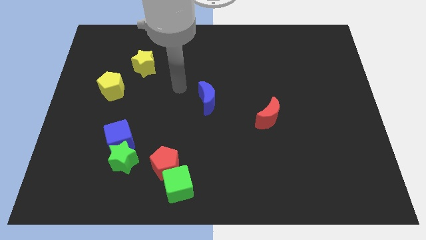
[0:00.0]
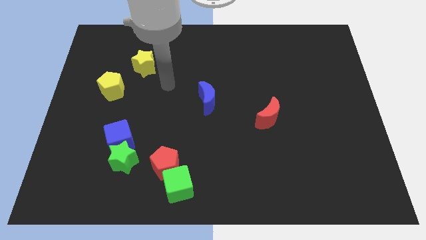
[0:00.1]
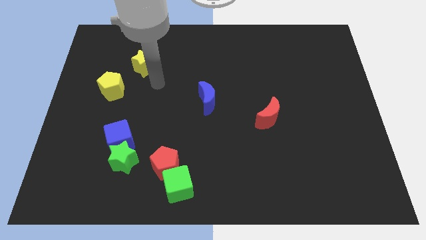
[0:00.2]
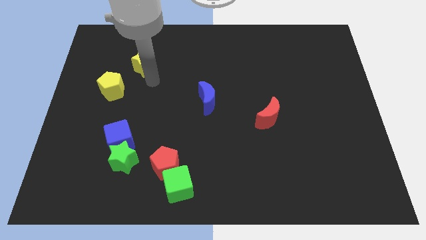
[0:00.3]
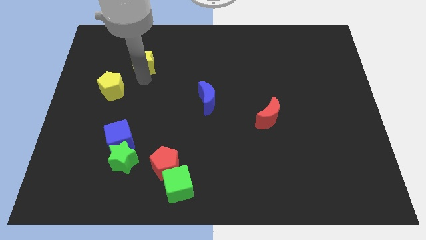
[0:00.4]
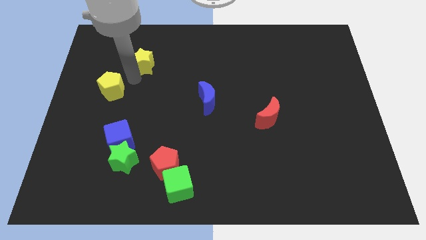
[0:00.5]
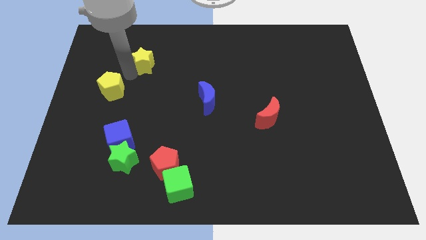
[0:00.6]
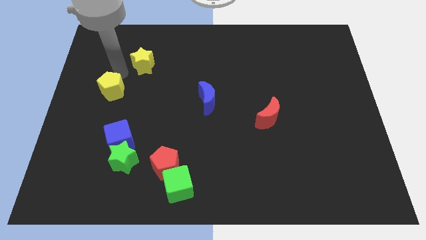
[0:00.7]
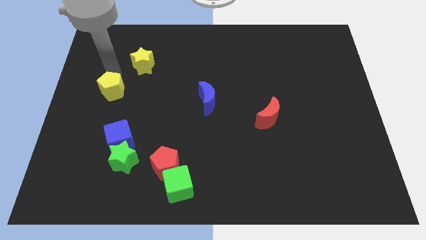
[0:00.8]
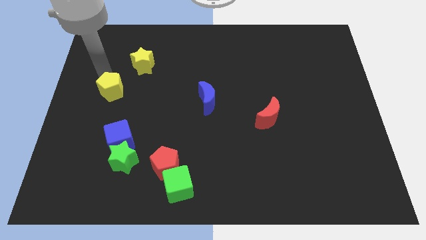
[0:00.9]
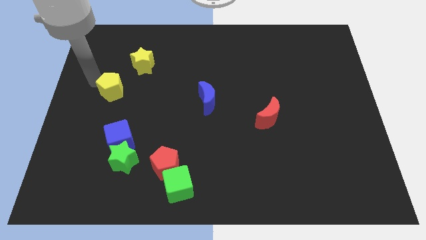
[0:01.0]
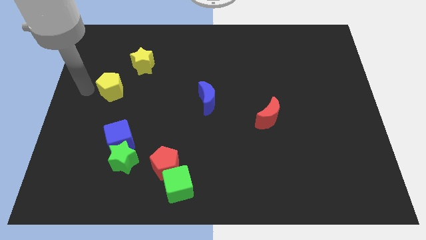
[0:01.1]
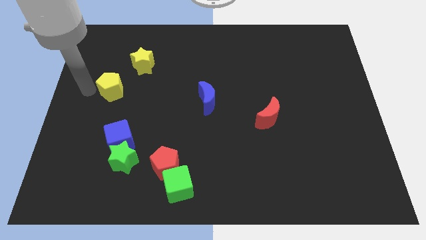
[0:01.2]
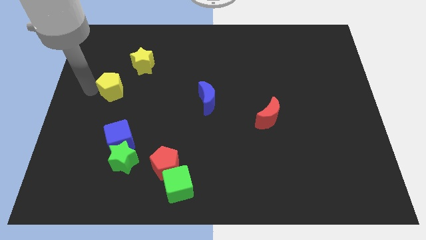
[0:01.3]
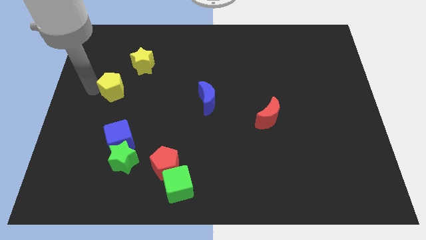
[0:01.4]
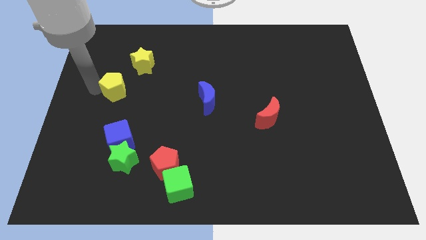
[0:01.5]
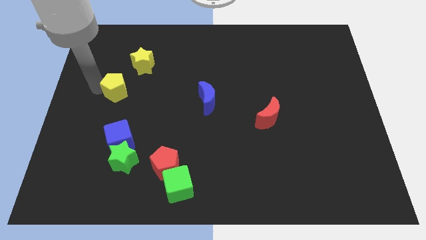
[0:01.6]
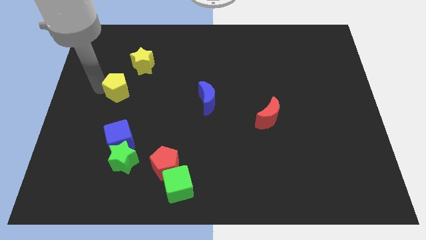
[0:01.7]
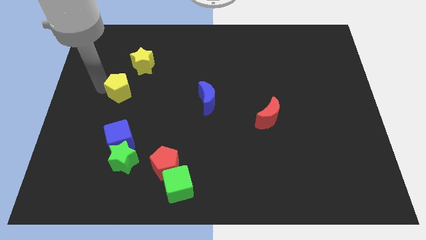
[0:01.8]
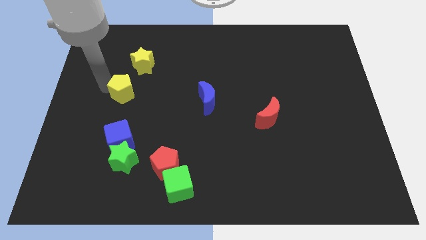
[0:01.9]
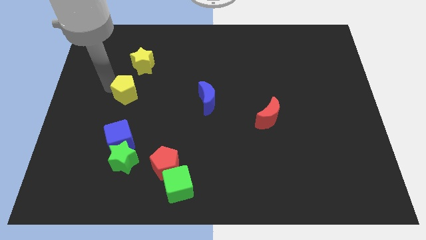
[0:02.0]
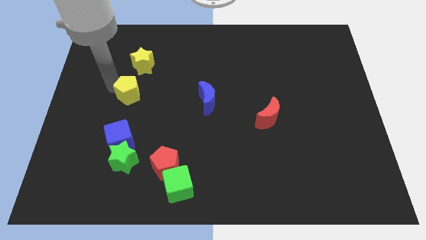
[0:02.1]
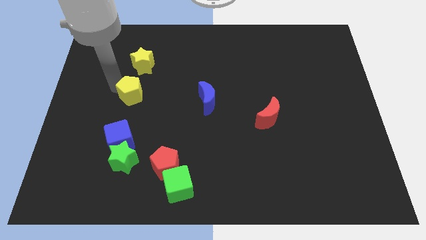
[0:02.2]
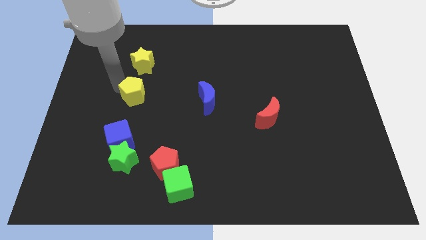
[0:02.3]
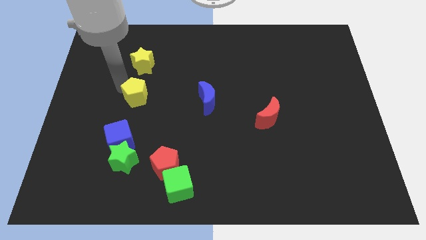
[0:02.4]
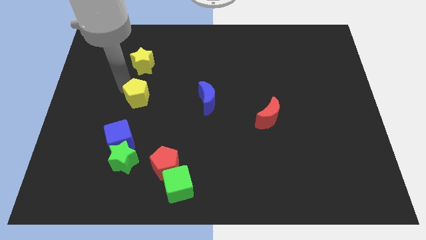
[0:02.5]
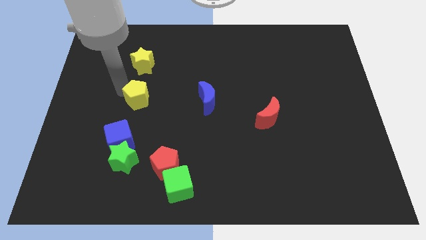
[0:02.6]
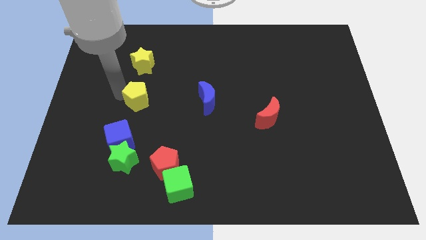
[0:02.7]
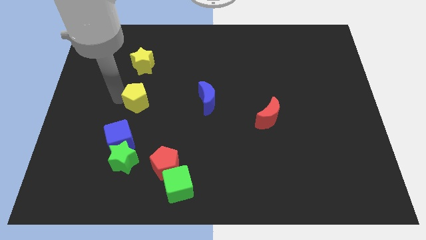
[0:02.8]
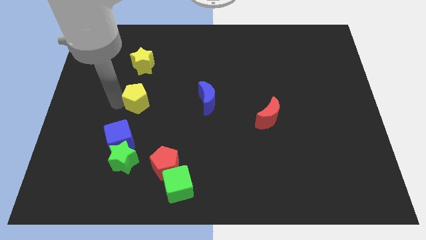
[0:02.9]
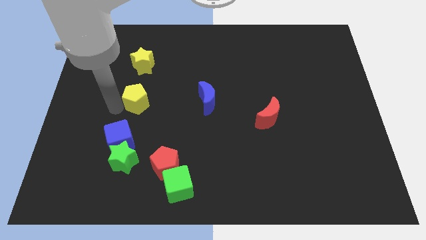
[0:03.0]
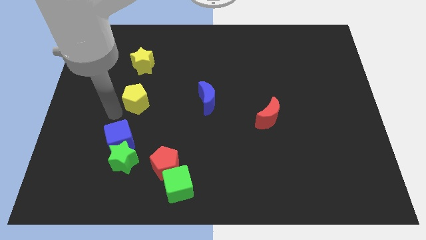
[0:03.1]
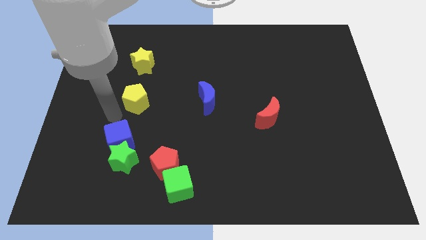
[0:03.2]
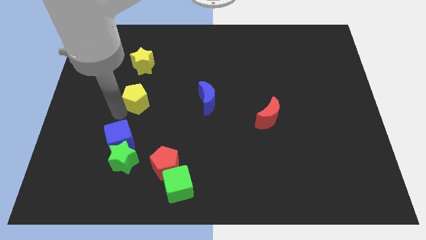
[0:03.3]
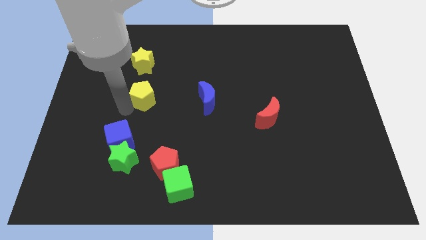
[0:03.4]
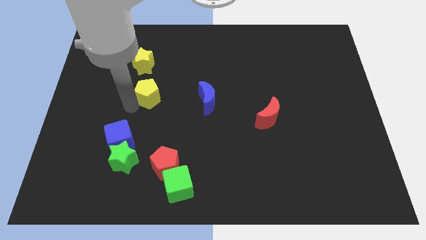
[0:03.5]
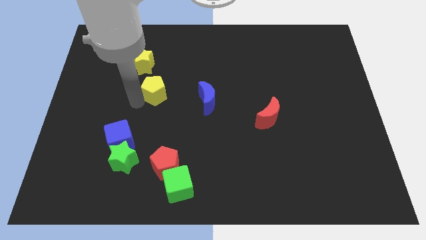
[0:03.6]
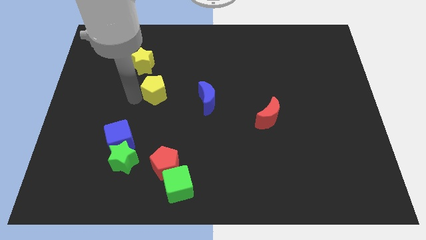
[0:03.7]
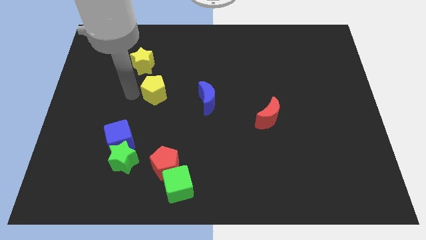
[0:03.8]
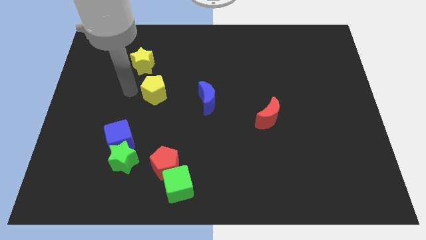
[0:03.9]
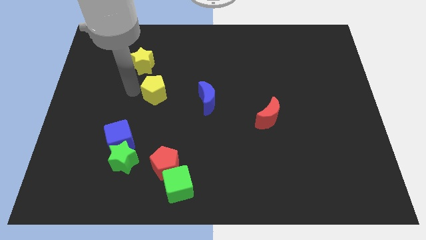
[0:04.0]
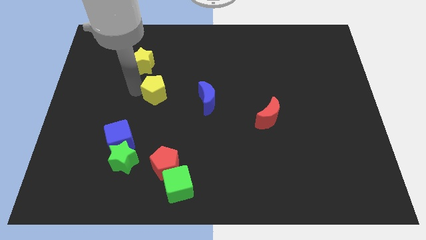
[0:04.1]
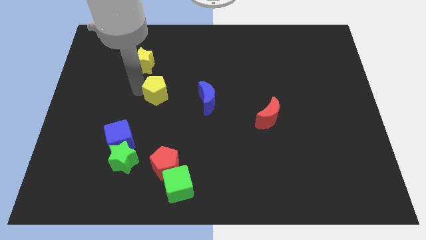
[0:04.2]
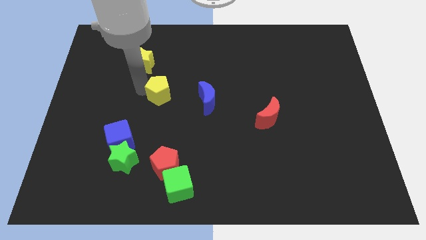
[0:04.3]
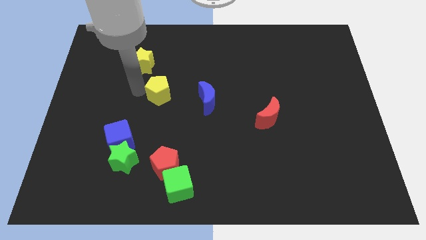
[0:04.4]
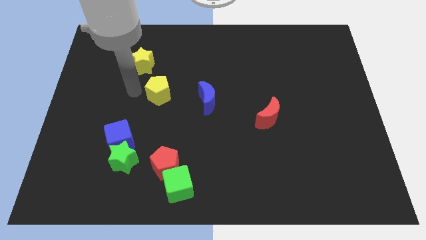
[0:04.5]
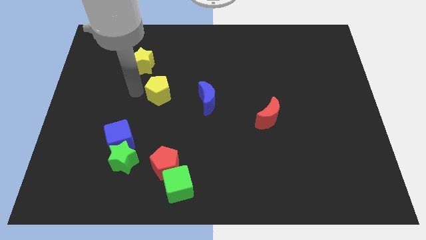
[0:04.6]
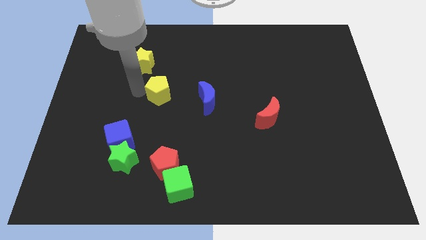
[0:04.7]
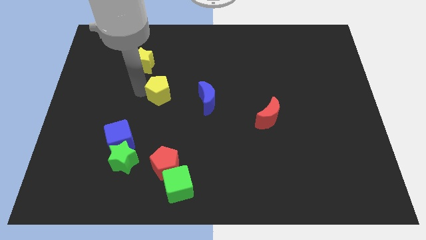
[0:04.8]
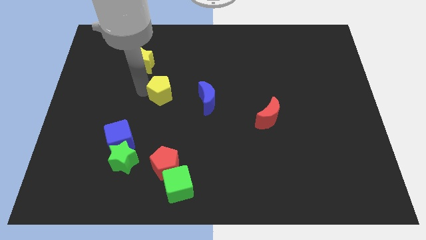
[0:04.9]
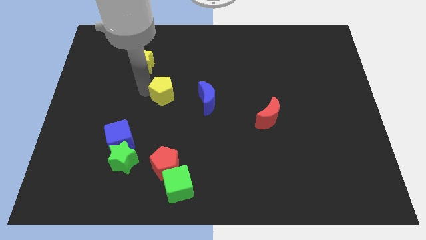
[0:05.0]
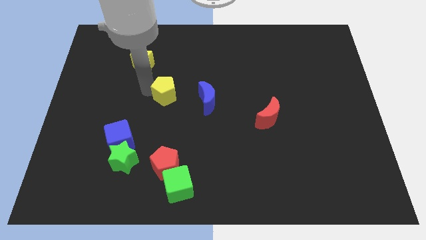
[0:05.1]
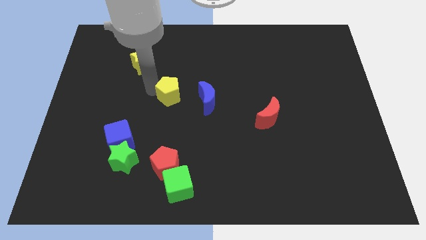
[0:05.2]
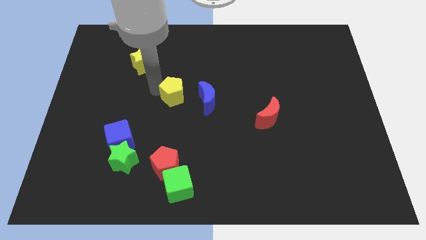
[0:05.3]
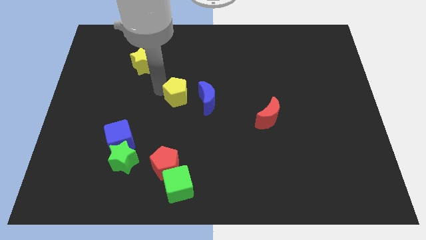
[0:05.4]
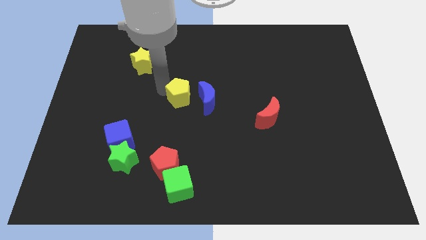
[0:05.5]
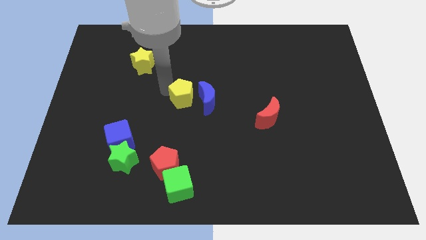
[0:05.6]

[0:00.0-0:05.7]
slide the yellow pentagon next to the blue moon
